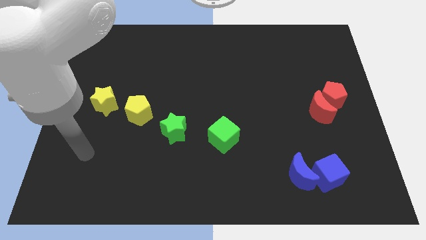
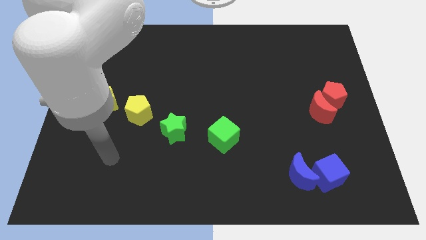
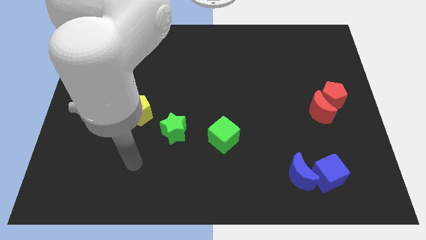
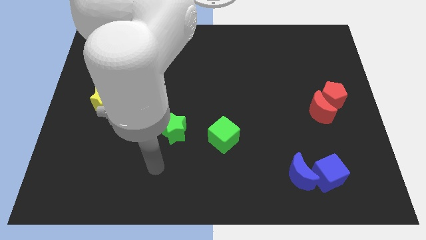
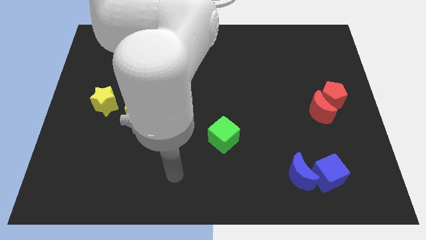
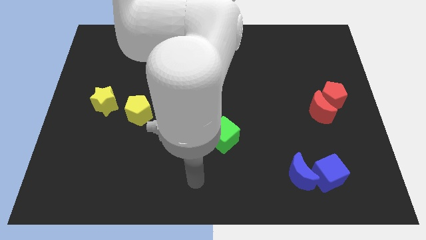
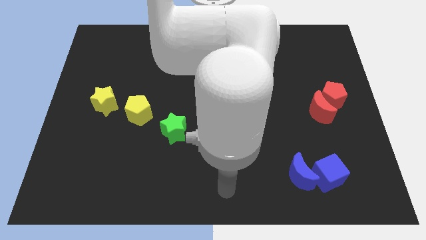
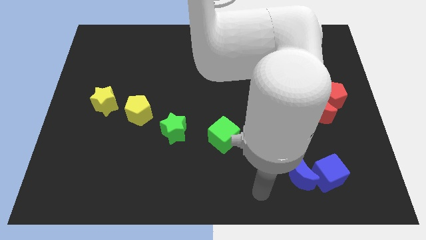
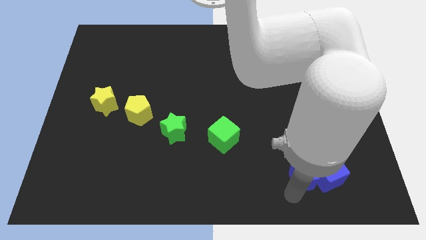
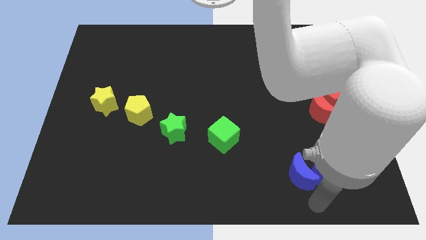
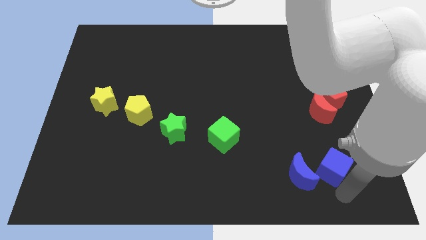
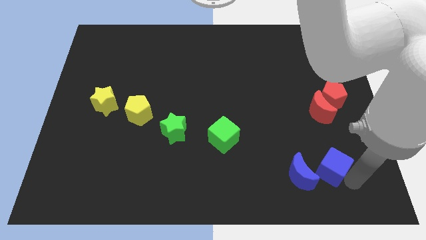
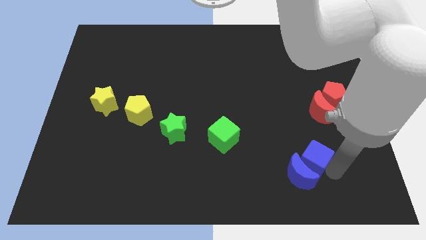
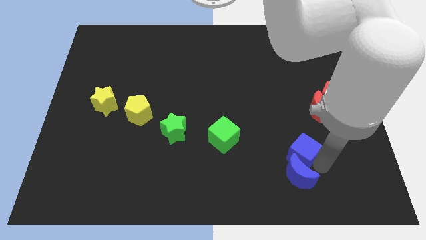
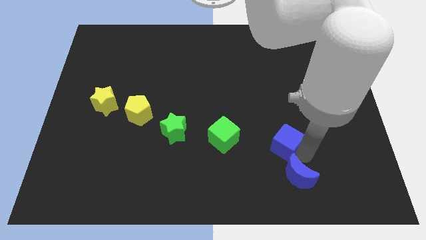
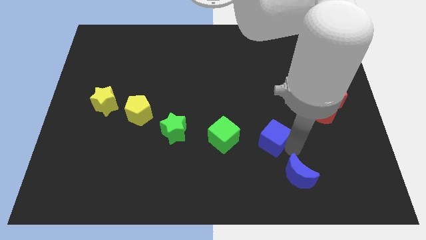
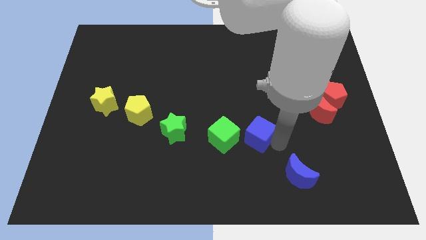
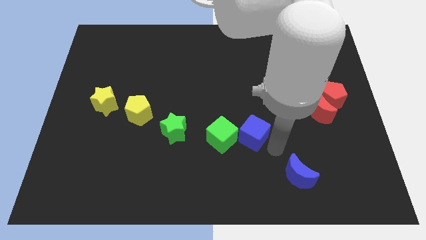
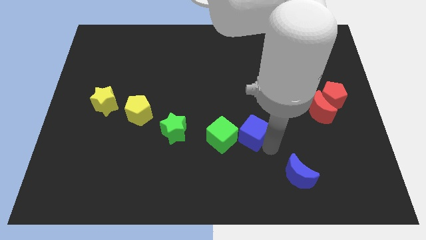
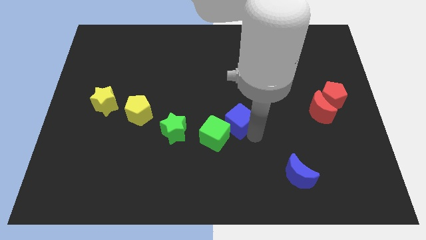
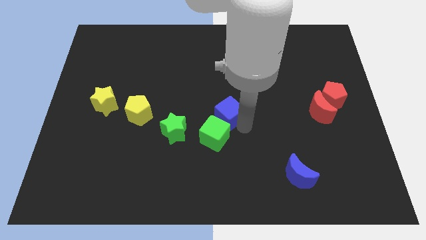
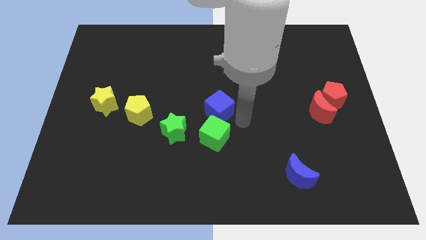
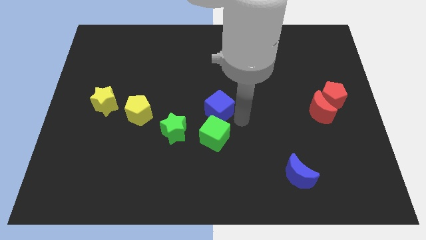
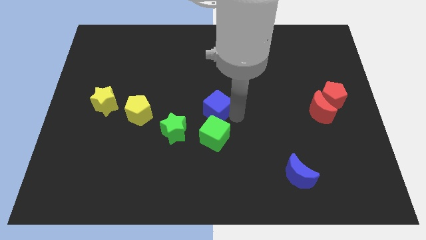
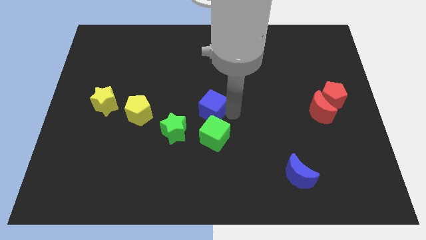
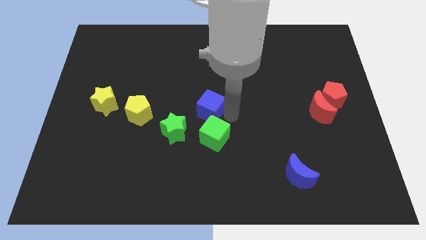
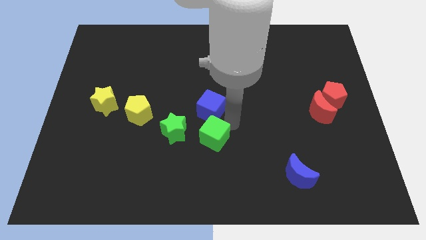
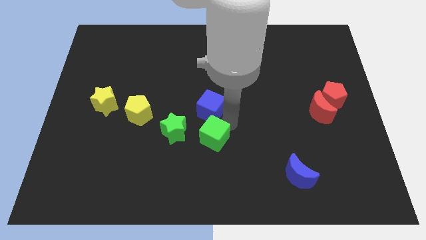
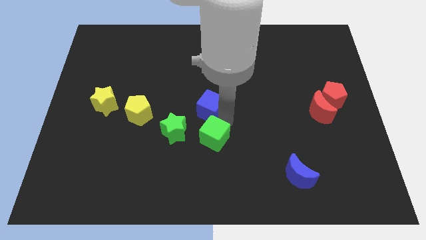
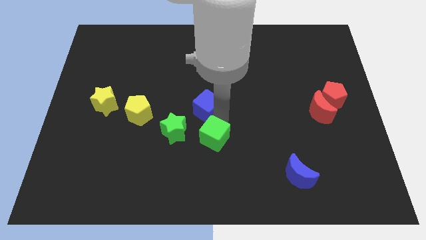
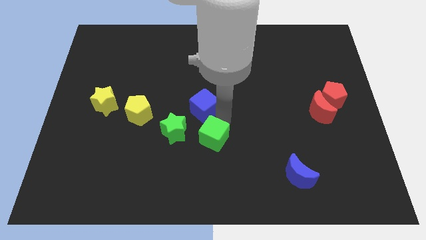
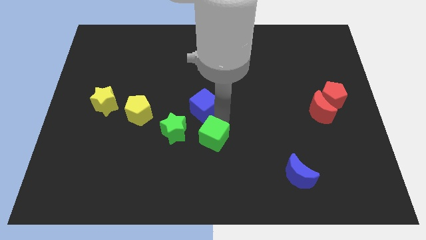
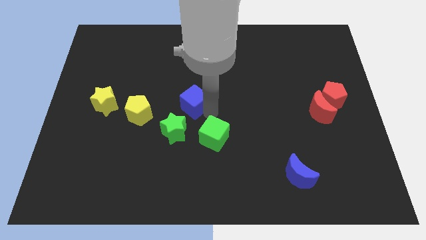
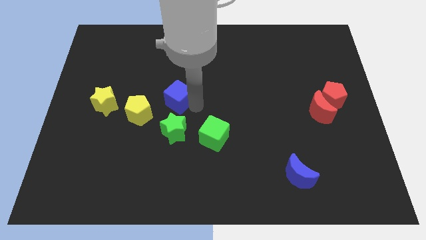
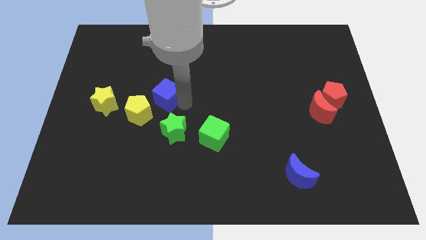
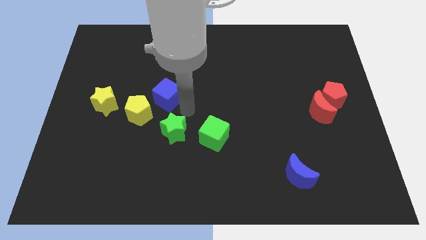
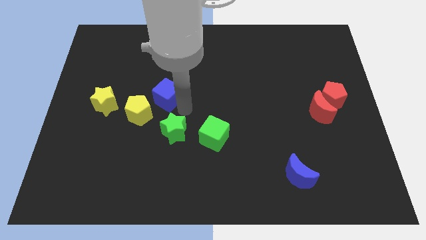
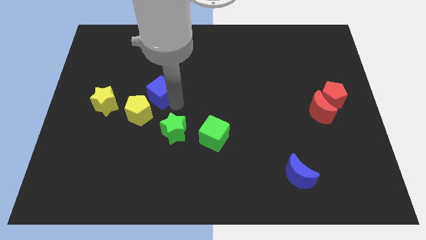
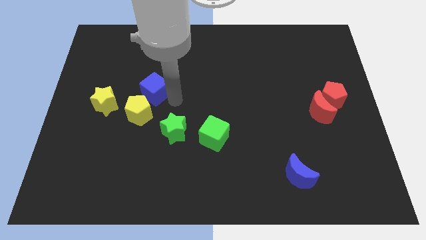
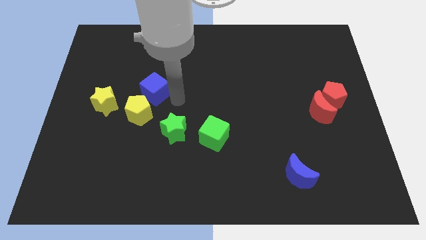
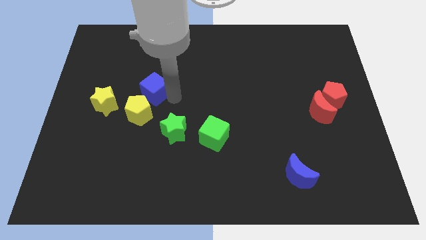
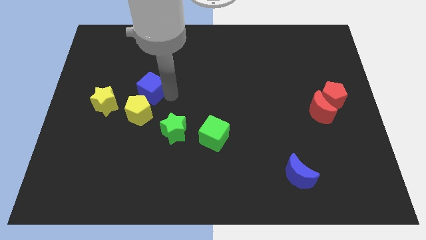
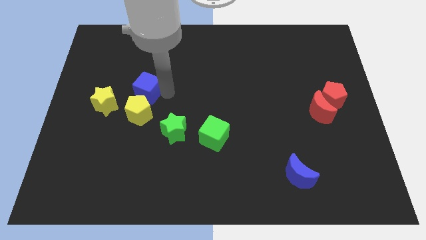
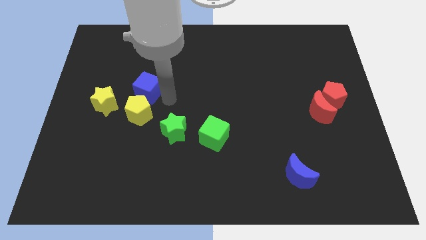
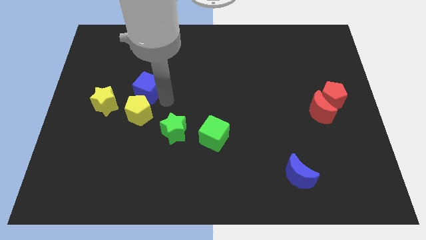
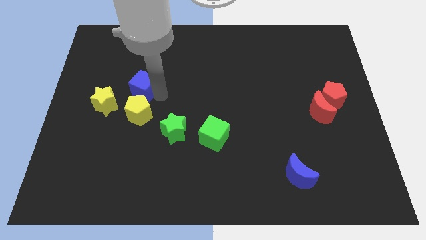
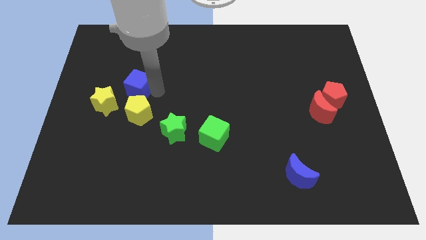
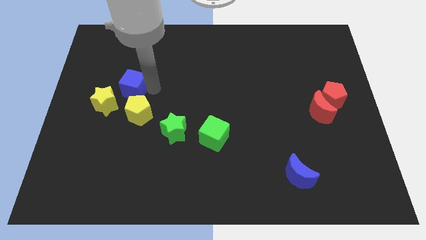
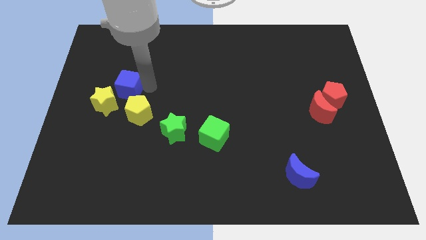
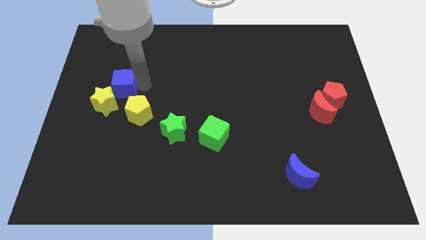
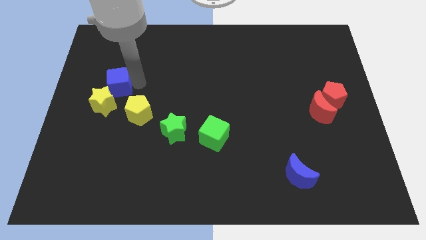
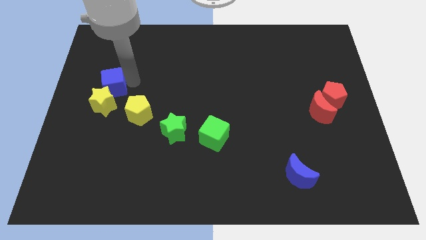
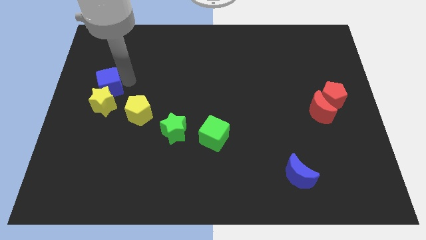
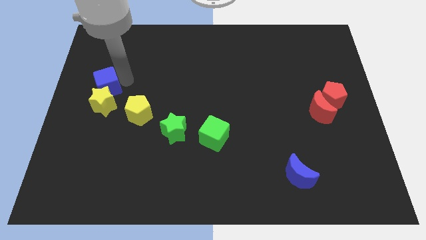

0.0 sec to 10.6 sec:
move the blue cube to the left side of the board
